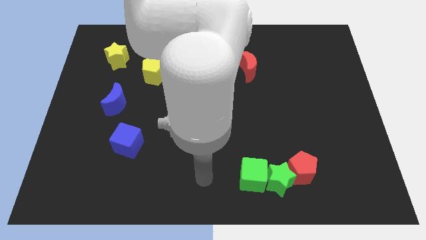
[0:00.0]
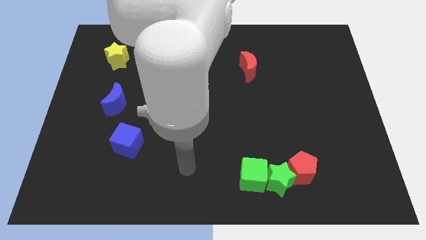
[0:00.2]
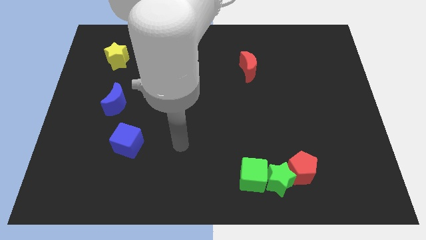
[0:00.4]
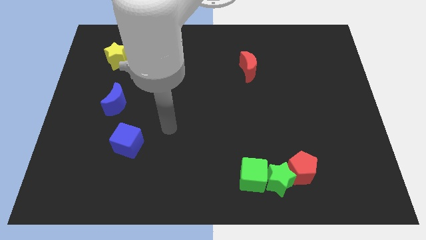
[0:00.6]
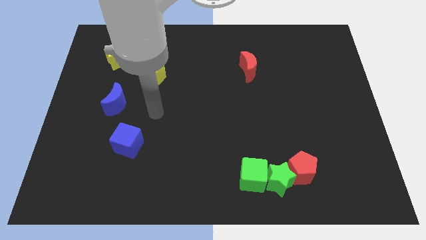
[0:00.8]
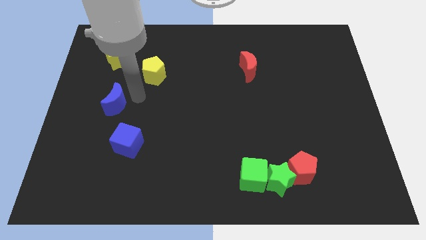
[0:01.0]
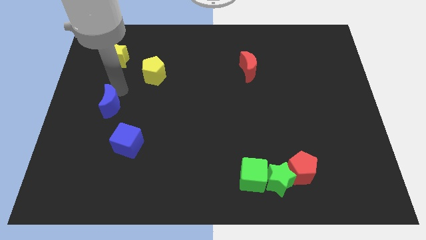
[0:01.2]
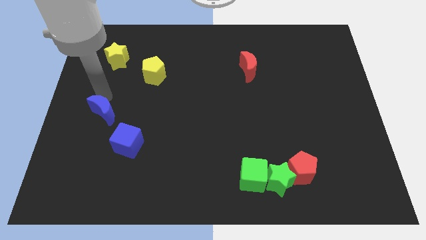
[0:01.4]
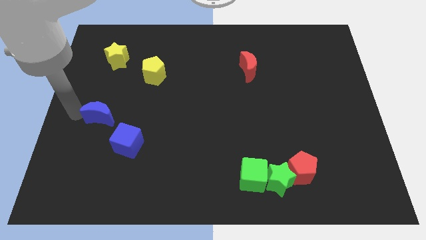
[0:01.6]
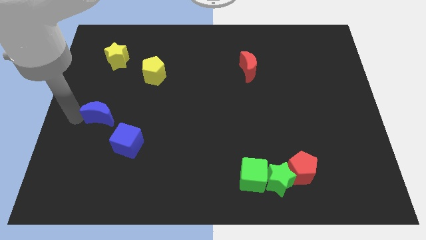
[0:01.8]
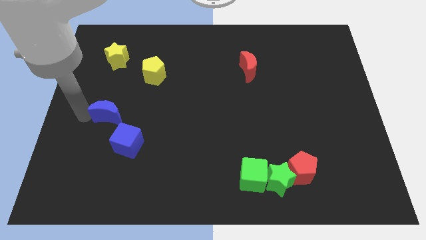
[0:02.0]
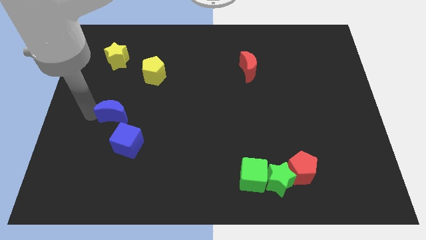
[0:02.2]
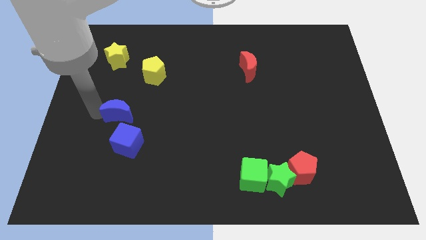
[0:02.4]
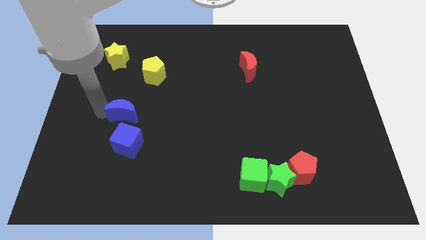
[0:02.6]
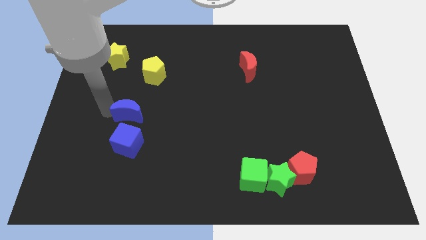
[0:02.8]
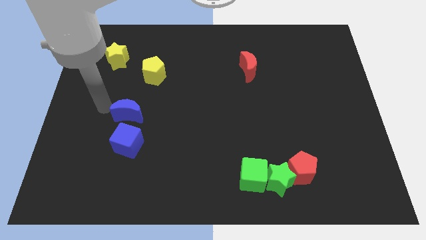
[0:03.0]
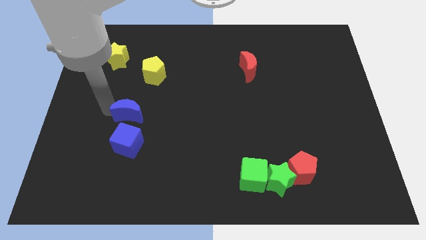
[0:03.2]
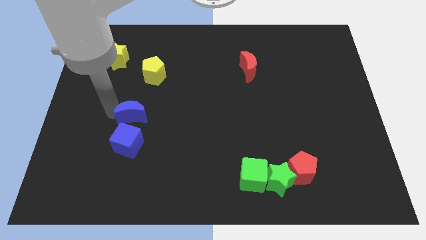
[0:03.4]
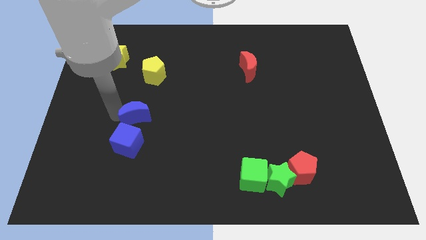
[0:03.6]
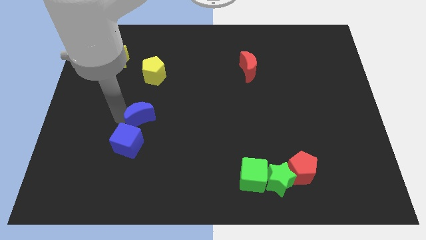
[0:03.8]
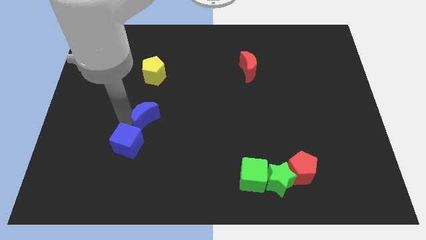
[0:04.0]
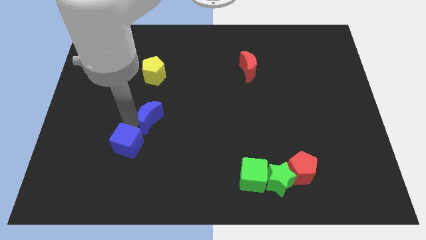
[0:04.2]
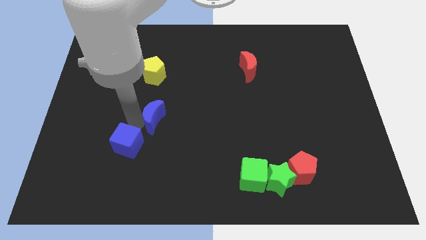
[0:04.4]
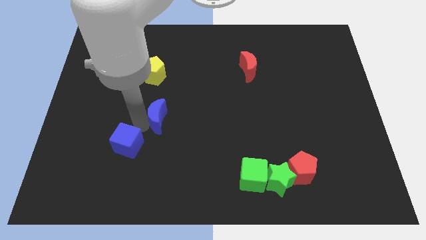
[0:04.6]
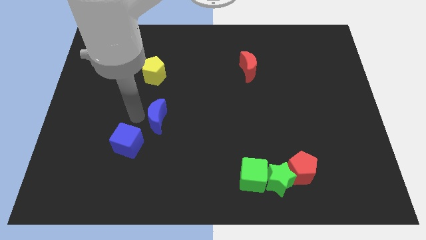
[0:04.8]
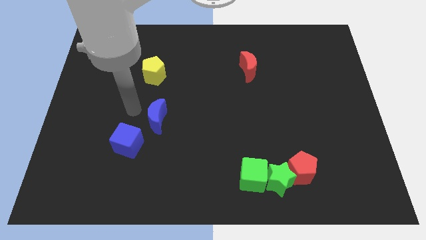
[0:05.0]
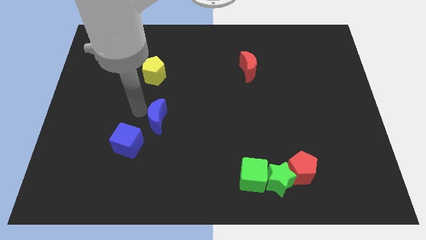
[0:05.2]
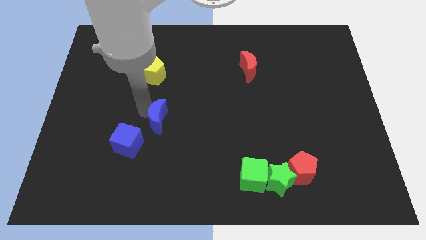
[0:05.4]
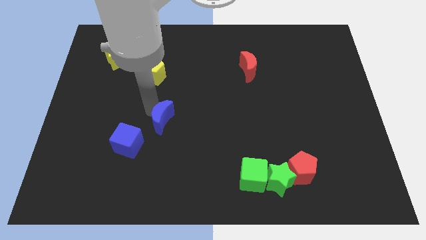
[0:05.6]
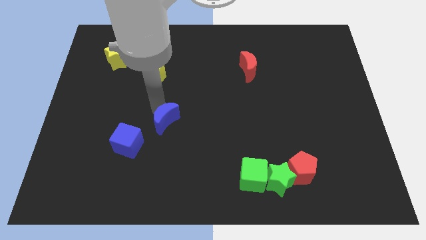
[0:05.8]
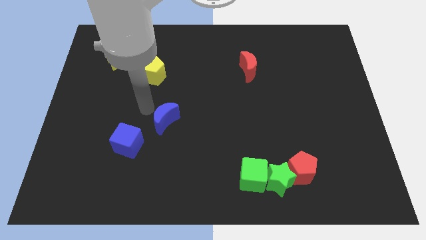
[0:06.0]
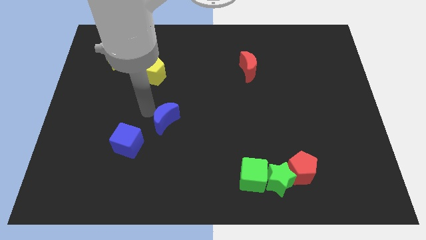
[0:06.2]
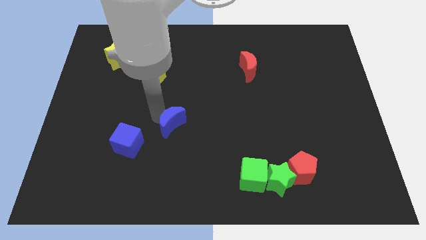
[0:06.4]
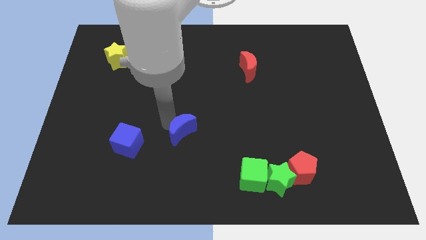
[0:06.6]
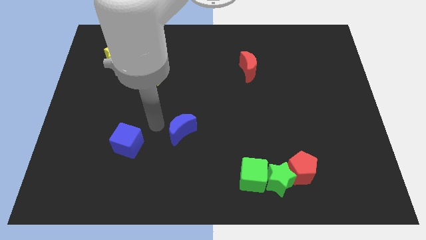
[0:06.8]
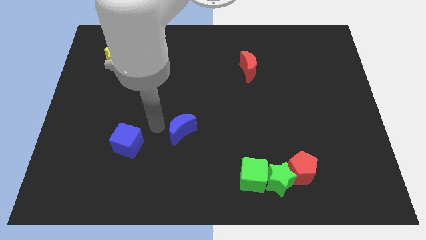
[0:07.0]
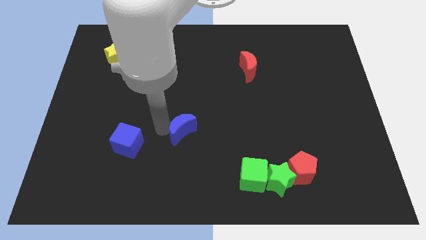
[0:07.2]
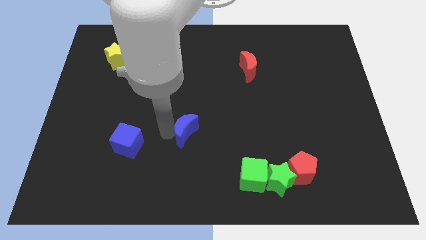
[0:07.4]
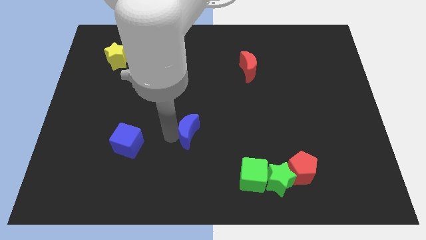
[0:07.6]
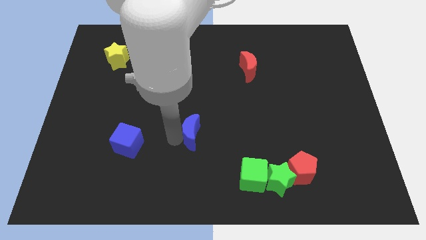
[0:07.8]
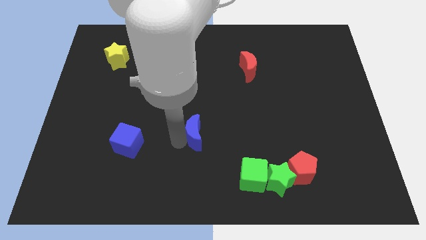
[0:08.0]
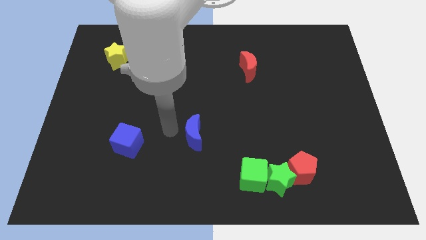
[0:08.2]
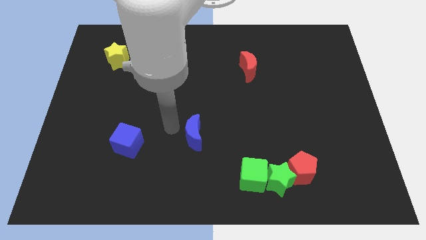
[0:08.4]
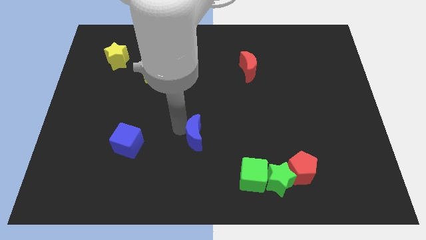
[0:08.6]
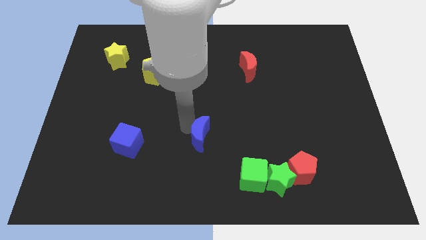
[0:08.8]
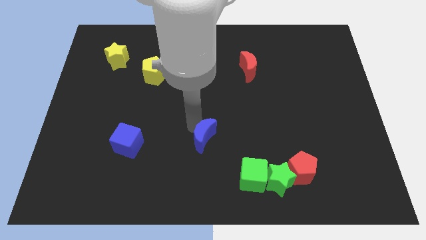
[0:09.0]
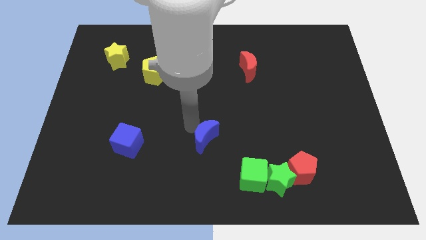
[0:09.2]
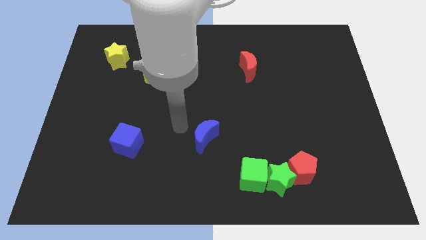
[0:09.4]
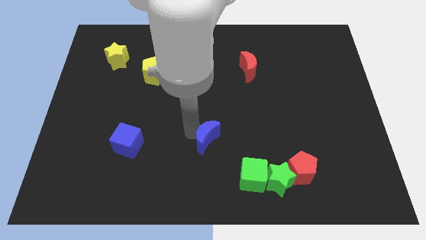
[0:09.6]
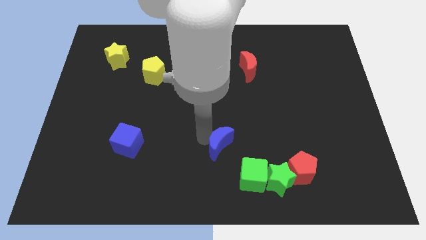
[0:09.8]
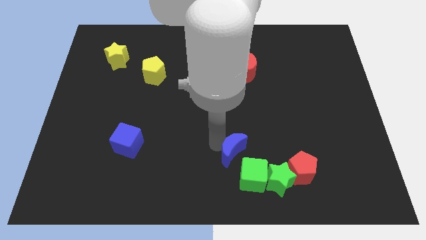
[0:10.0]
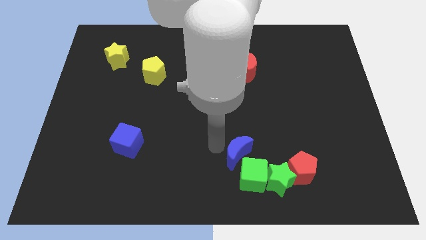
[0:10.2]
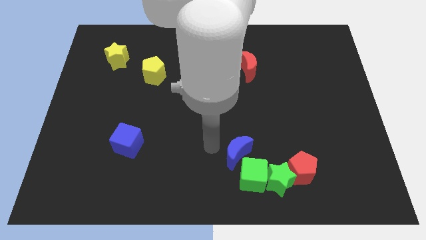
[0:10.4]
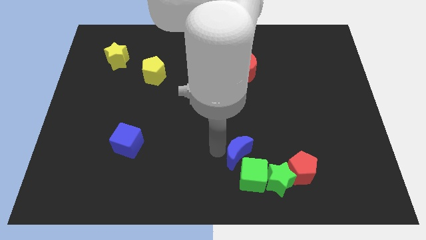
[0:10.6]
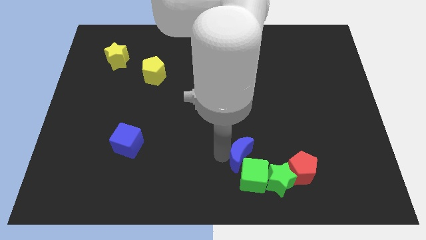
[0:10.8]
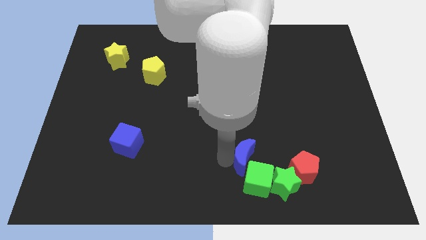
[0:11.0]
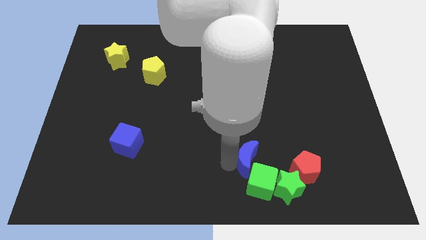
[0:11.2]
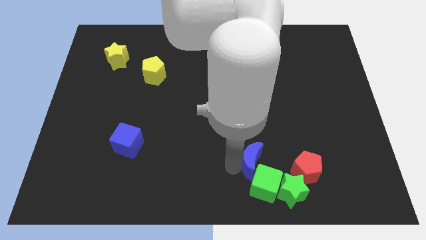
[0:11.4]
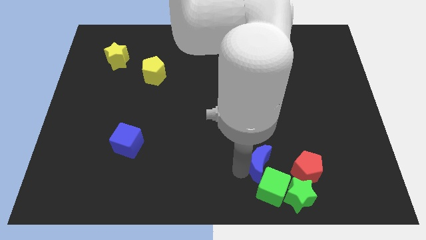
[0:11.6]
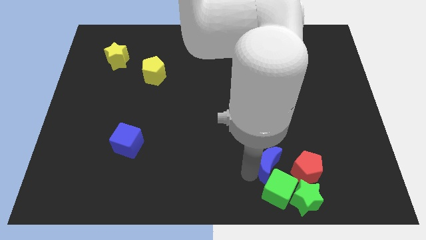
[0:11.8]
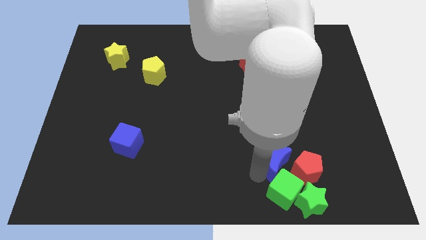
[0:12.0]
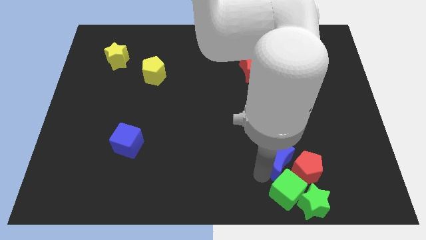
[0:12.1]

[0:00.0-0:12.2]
slide the blue moon towards the red pentagon

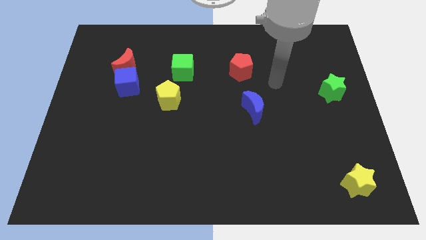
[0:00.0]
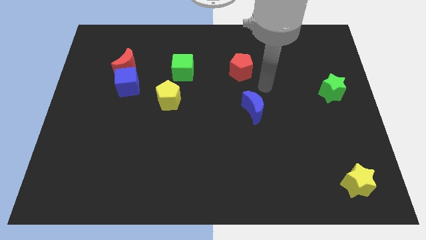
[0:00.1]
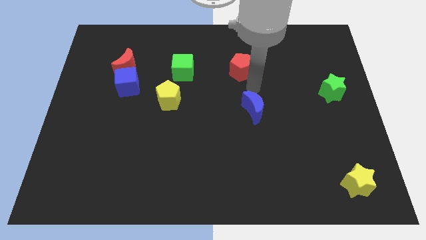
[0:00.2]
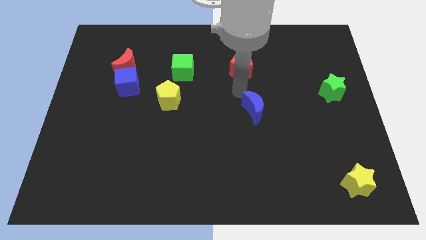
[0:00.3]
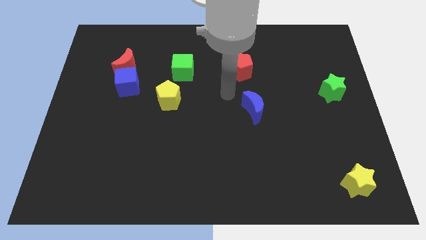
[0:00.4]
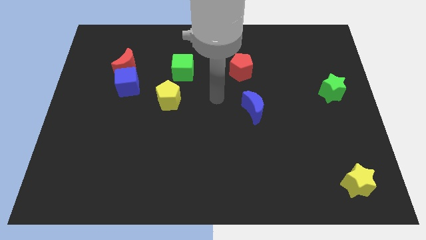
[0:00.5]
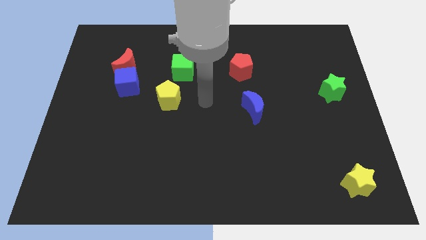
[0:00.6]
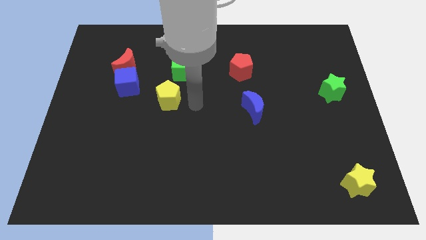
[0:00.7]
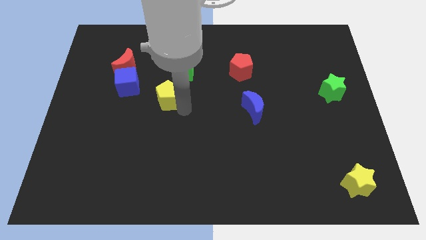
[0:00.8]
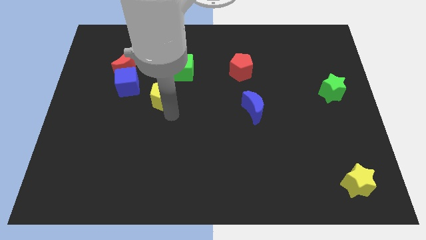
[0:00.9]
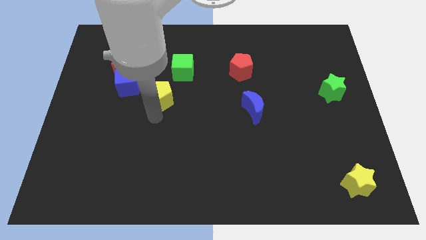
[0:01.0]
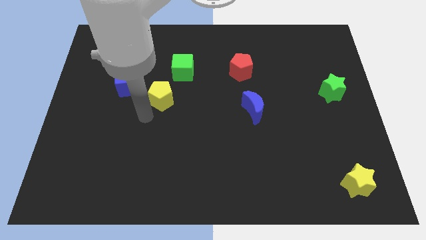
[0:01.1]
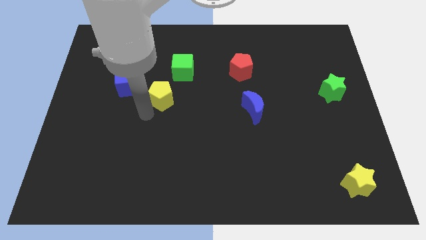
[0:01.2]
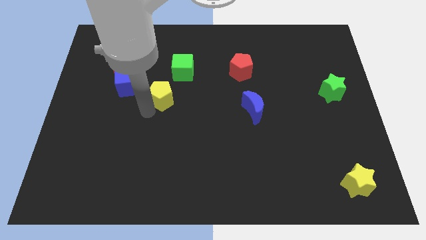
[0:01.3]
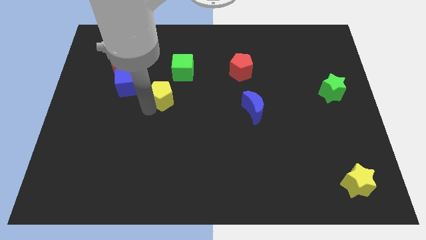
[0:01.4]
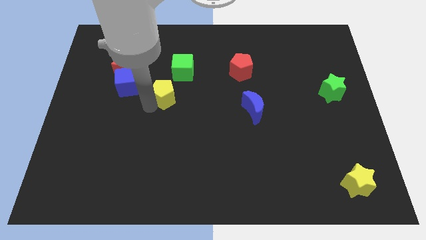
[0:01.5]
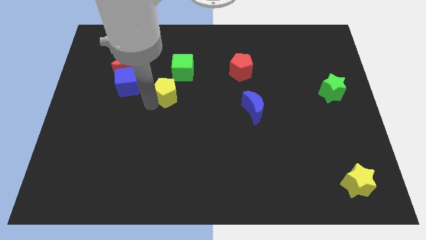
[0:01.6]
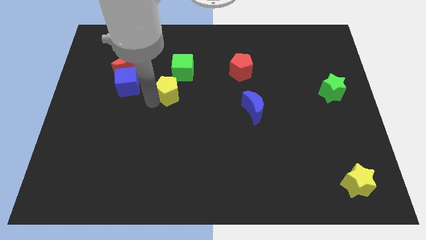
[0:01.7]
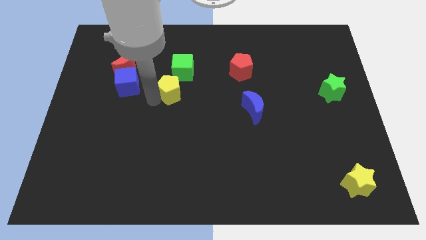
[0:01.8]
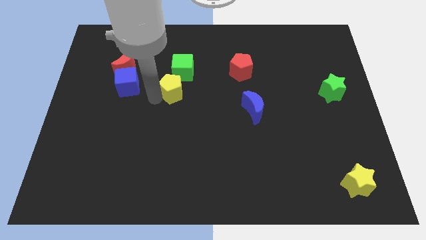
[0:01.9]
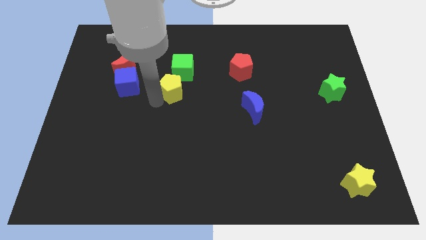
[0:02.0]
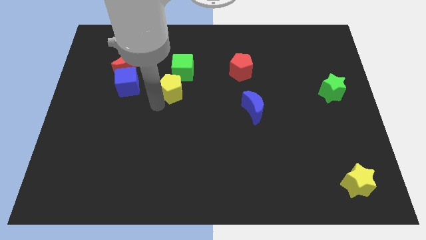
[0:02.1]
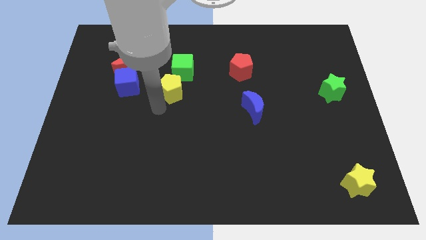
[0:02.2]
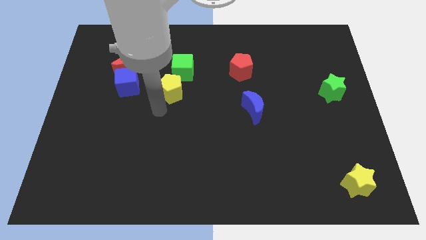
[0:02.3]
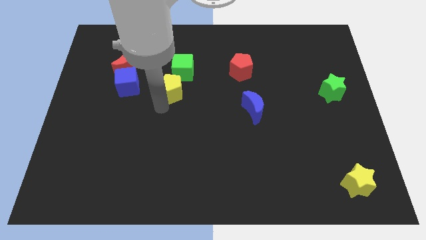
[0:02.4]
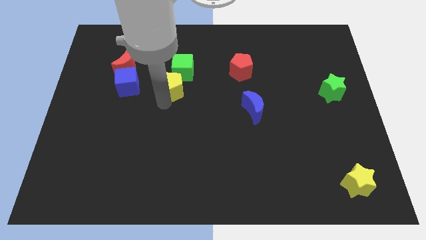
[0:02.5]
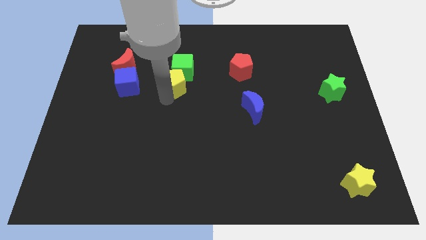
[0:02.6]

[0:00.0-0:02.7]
push the yellow pentagon towards the green cube
